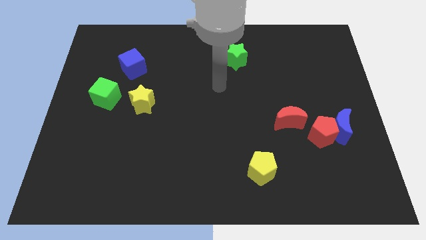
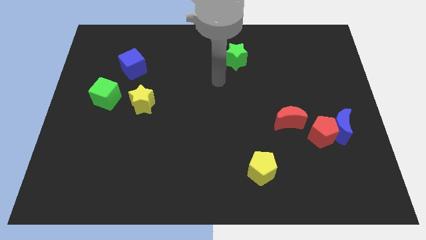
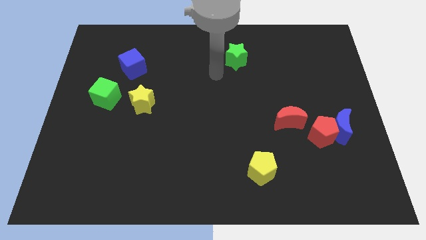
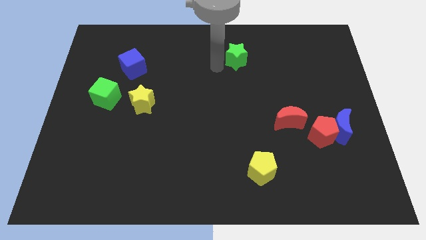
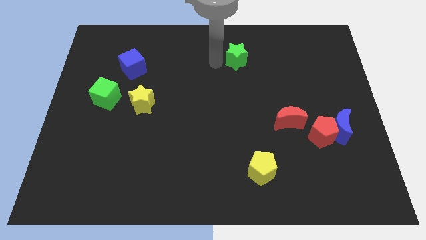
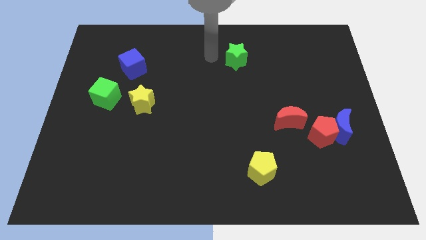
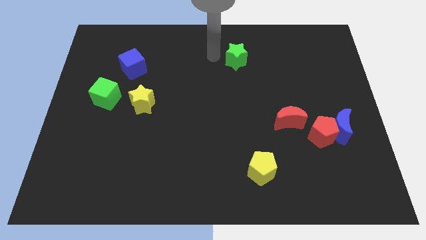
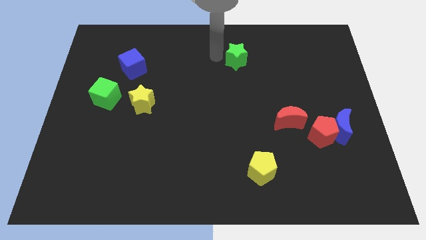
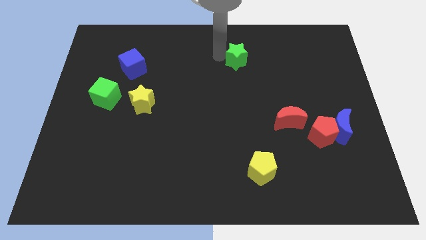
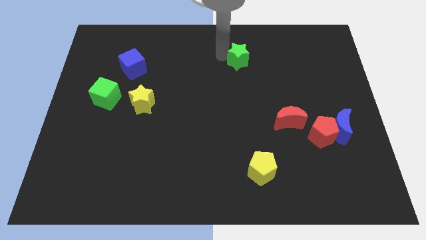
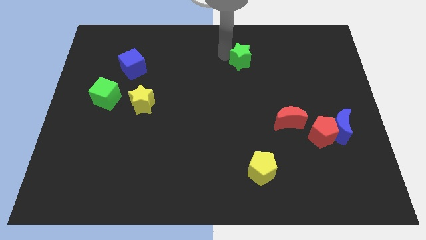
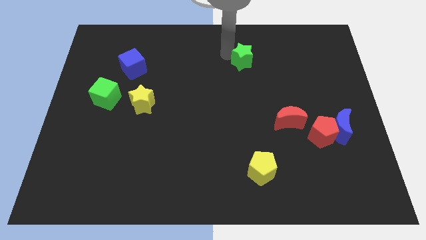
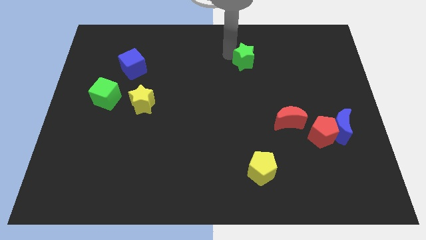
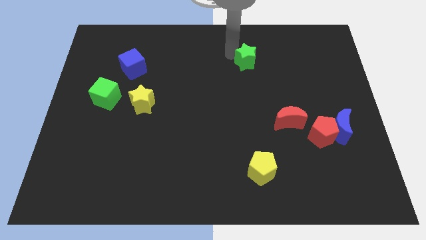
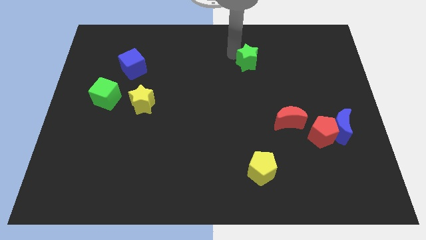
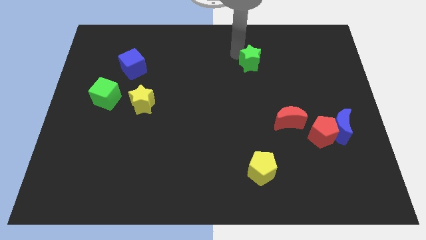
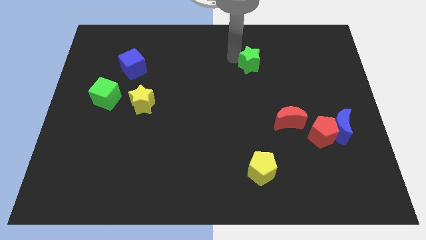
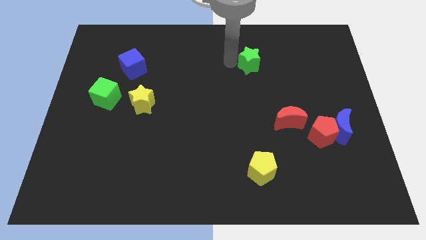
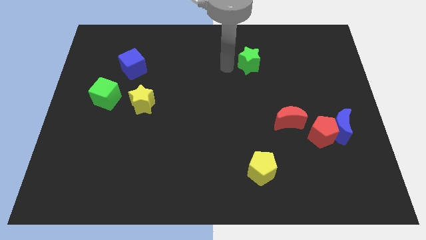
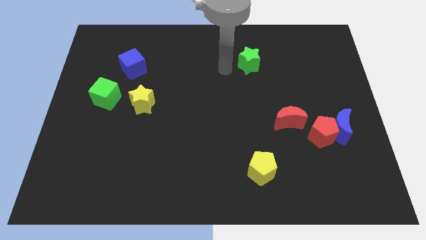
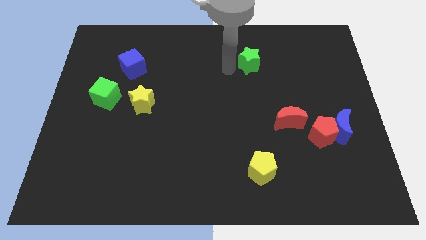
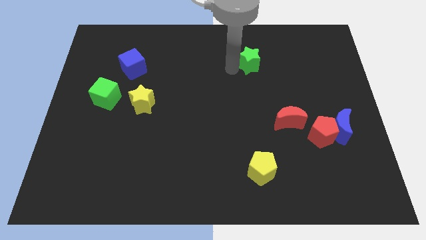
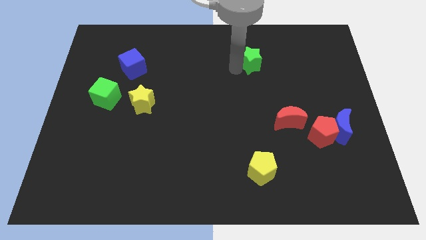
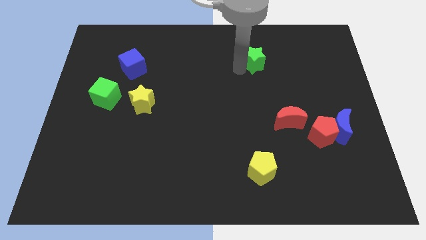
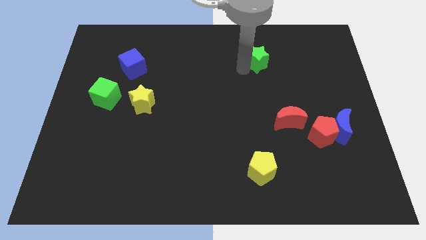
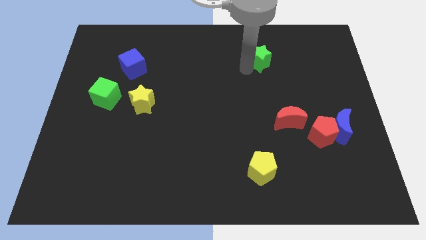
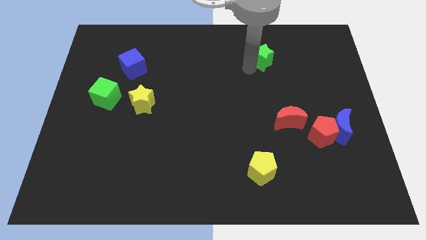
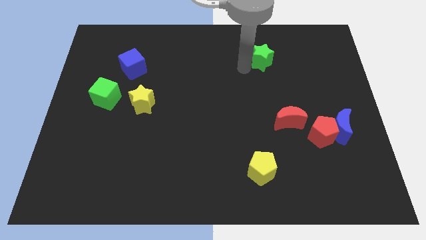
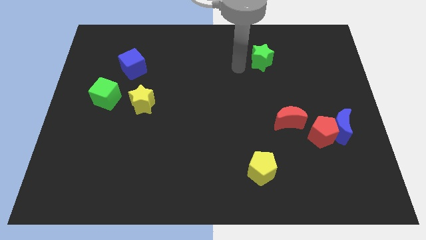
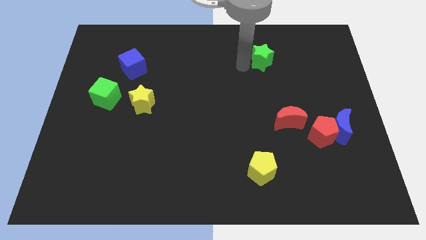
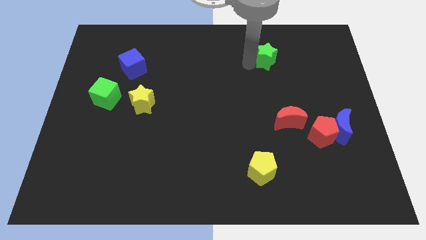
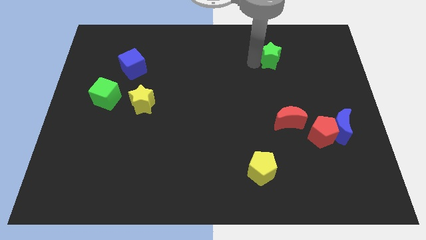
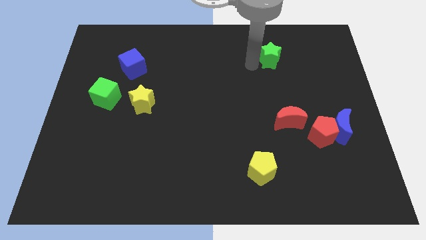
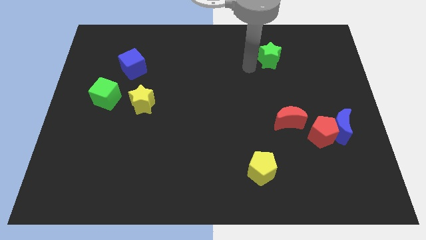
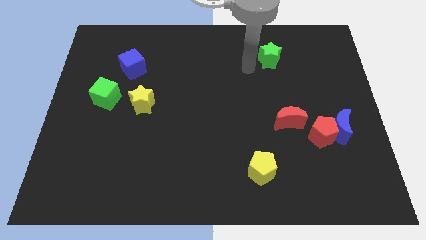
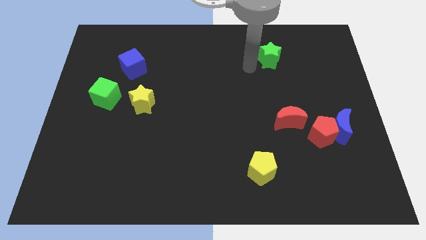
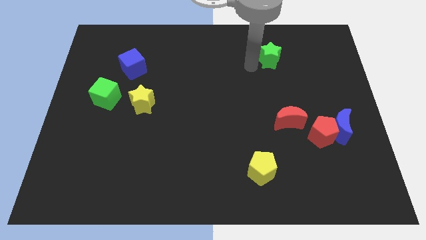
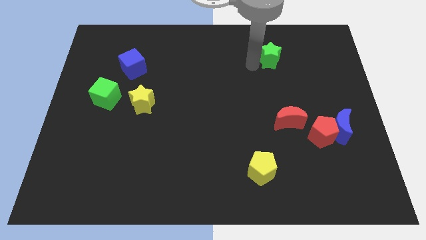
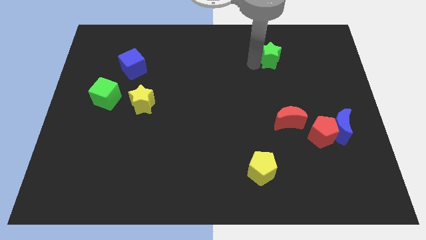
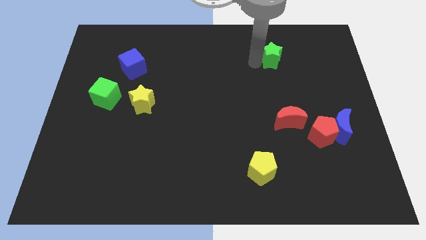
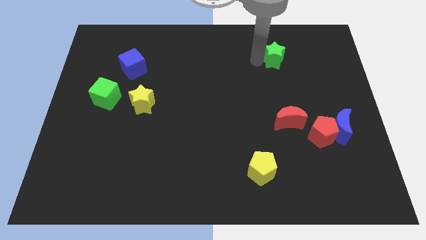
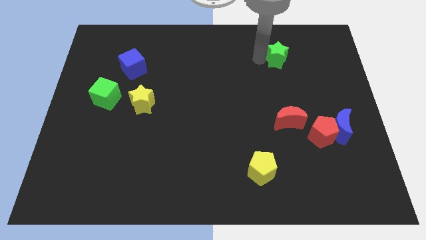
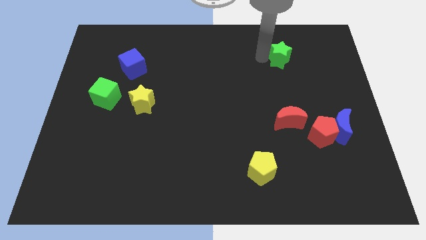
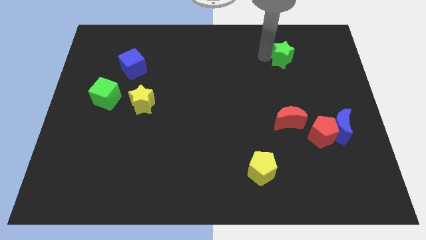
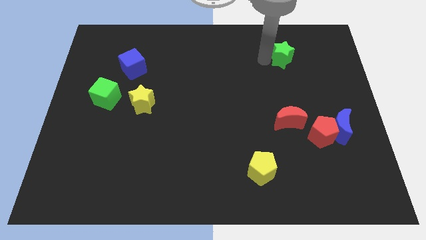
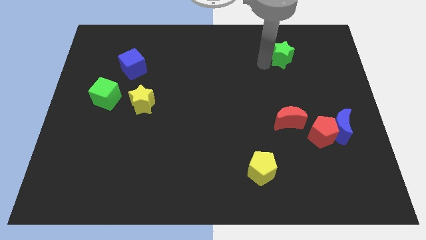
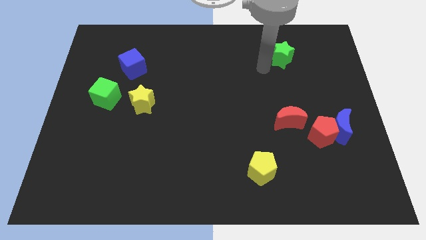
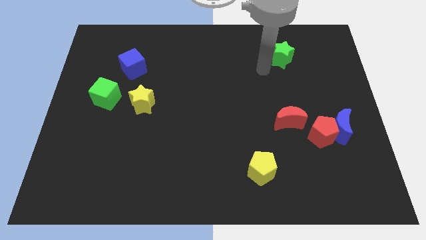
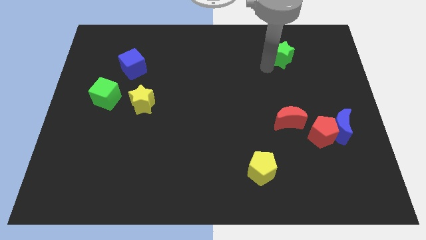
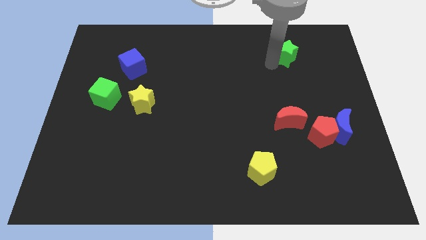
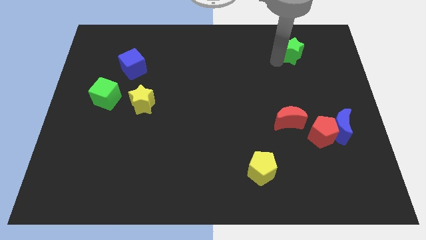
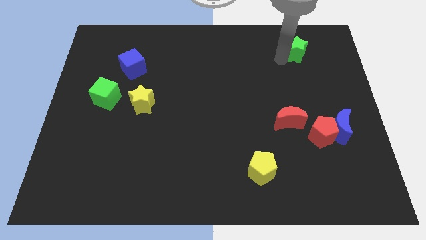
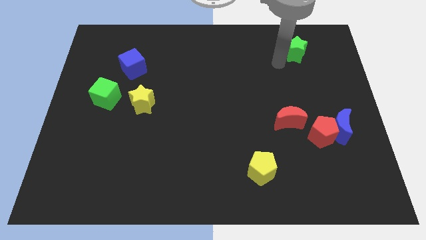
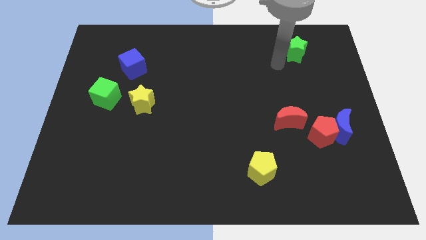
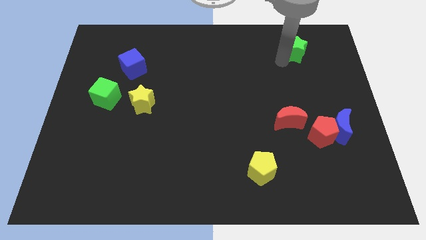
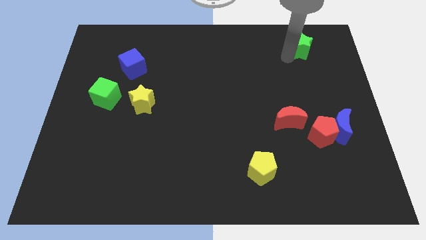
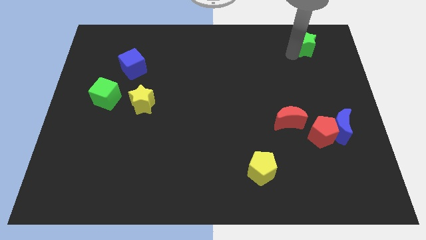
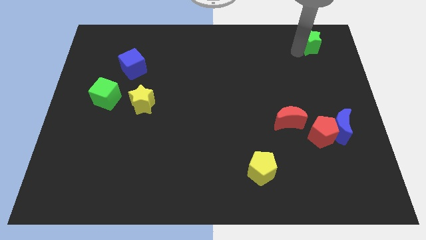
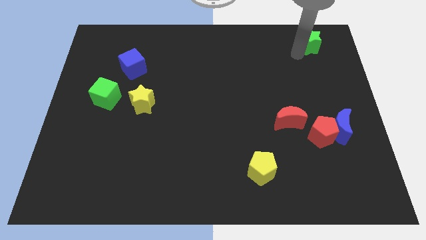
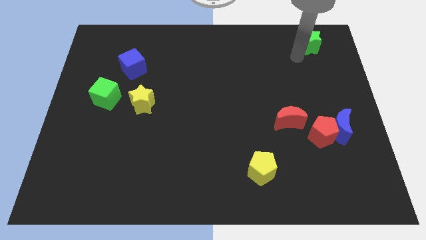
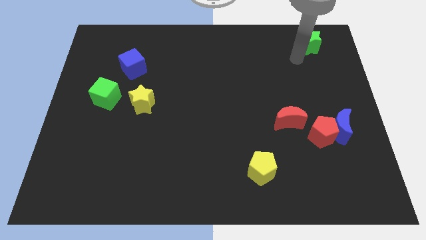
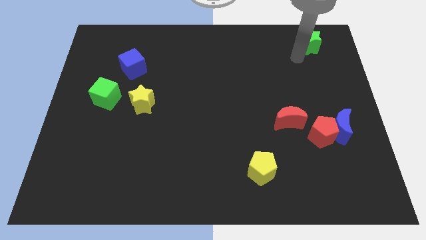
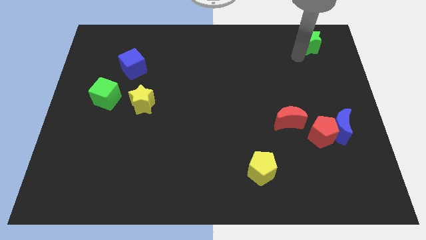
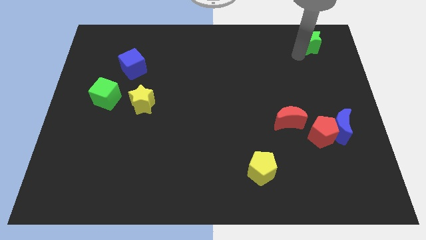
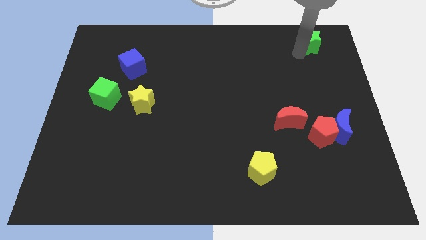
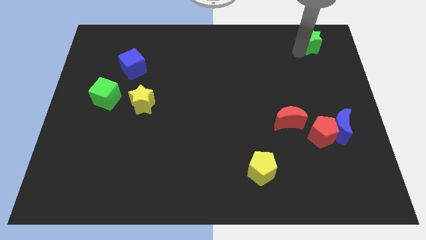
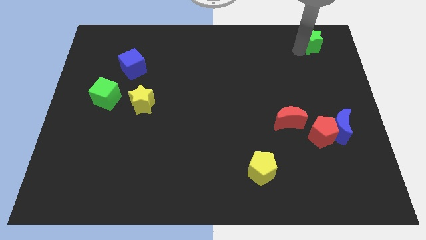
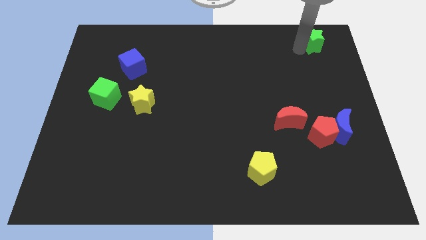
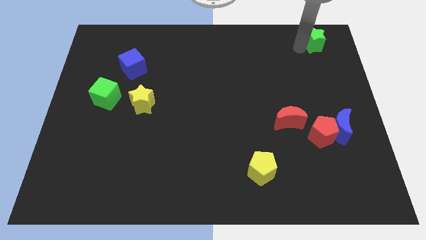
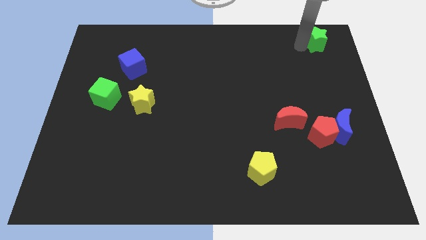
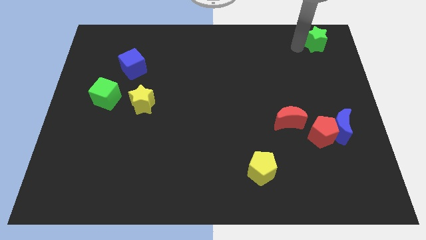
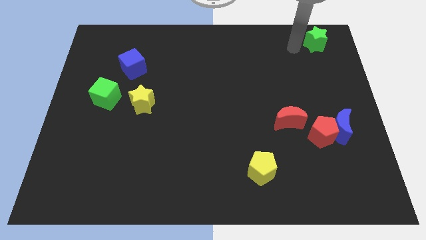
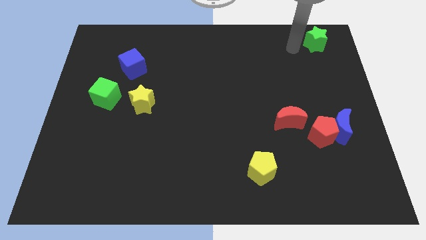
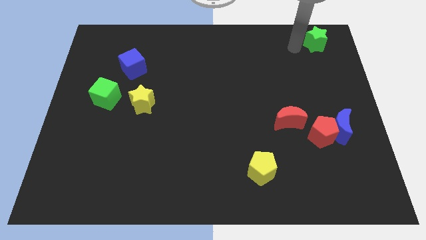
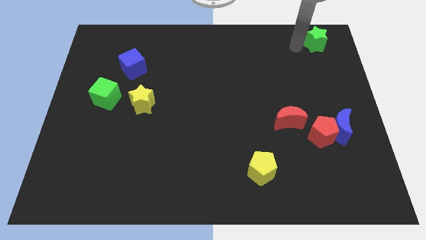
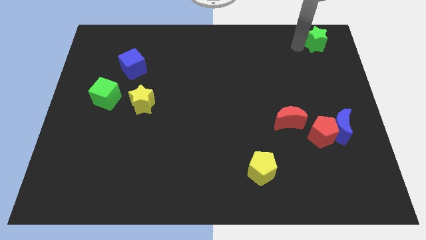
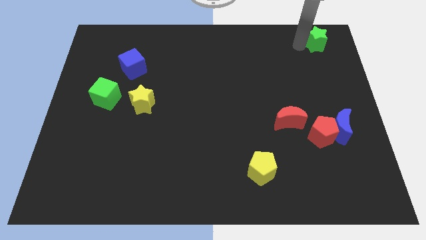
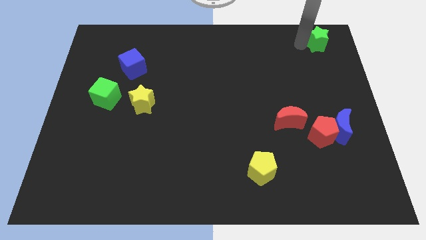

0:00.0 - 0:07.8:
push the green star to the upper right corner

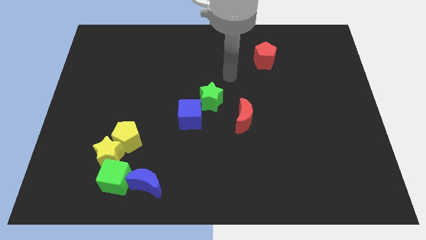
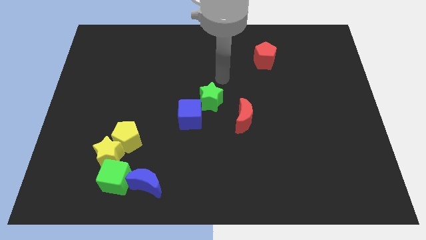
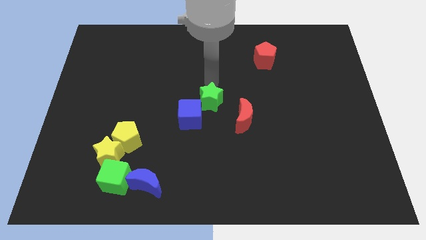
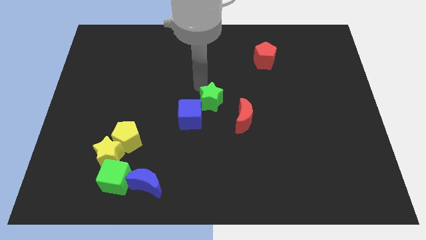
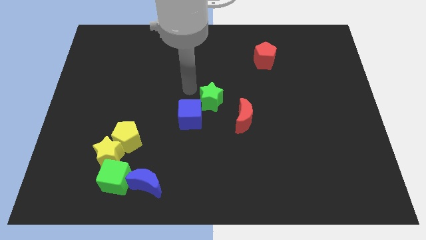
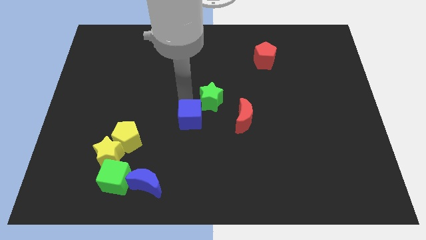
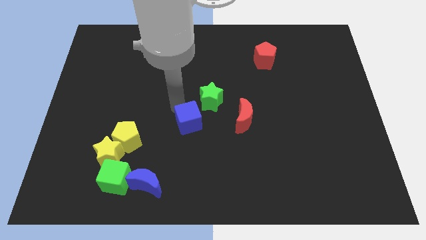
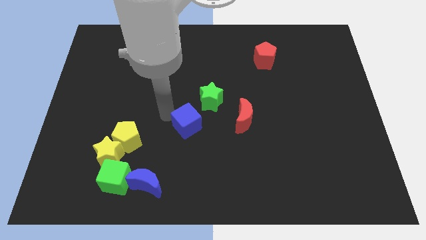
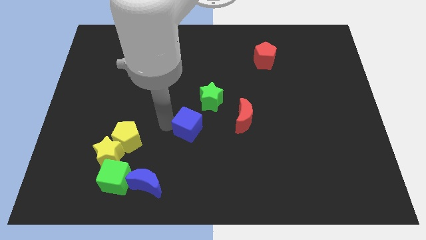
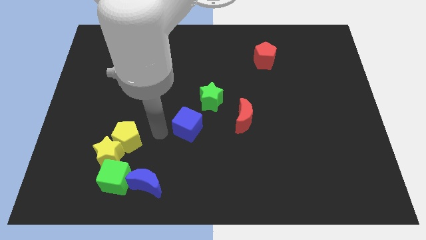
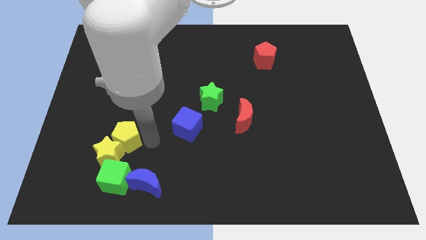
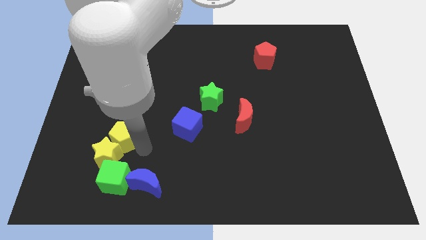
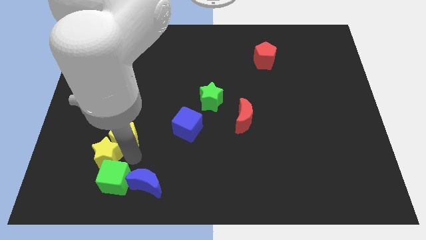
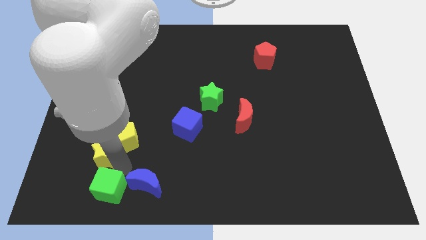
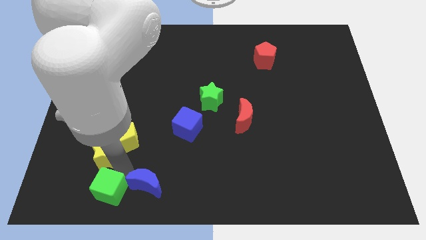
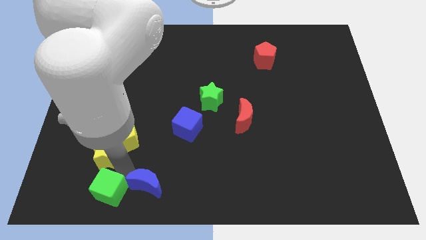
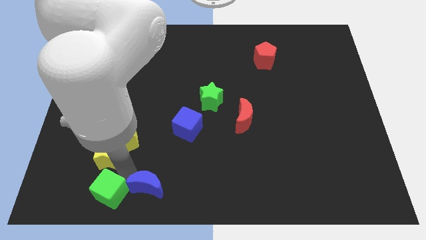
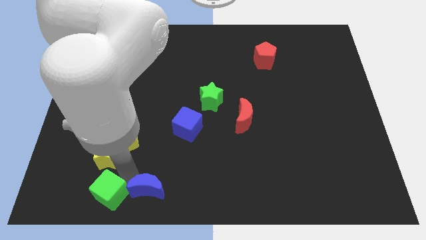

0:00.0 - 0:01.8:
slide the blue moon to the bottom side
